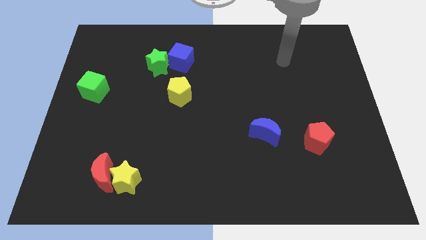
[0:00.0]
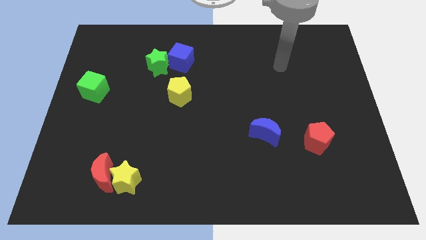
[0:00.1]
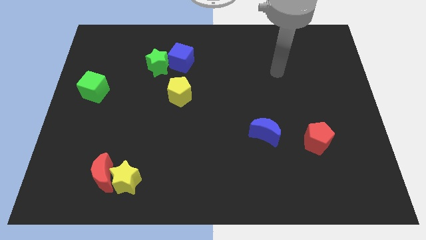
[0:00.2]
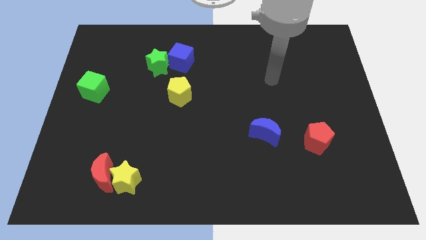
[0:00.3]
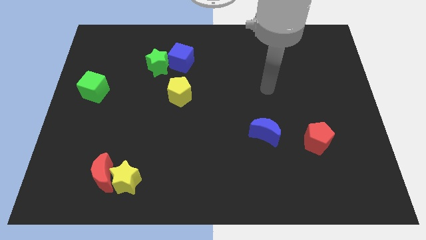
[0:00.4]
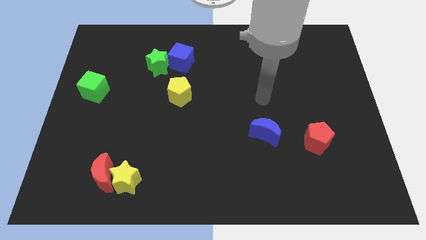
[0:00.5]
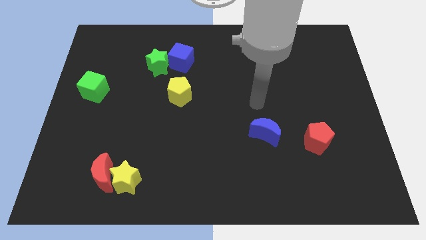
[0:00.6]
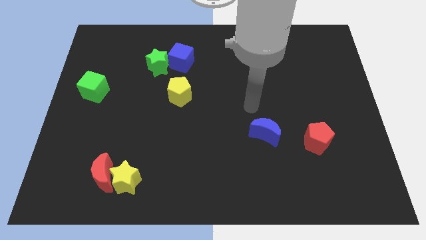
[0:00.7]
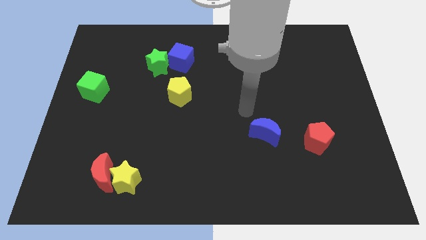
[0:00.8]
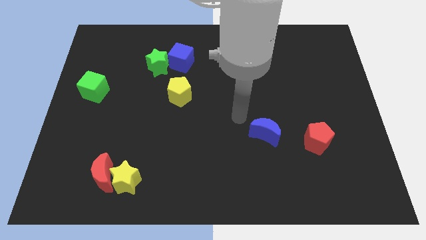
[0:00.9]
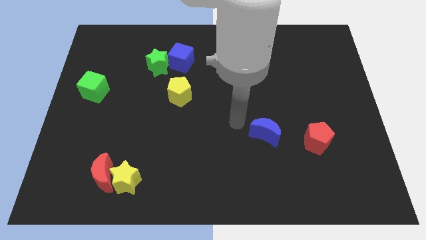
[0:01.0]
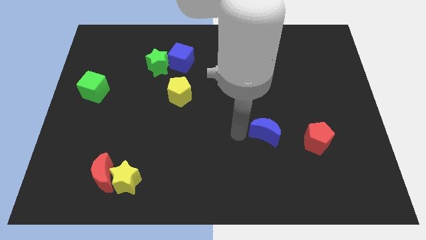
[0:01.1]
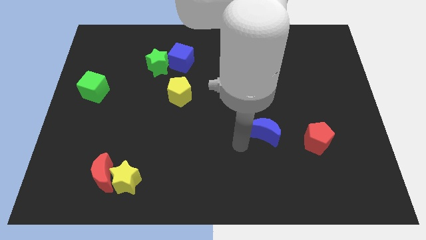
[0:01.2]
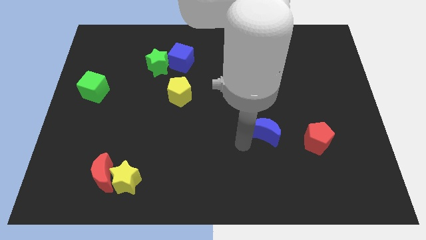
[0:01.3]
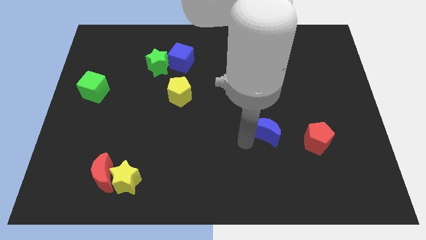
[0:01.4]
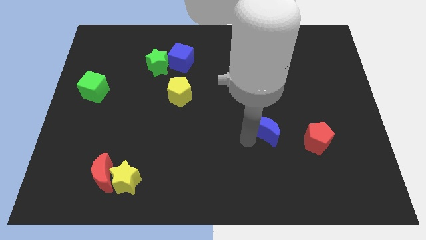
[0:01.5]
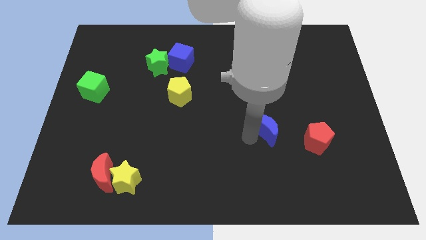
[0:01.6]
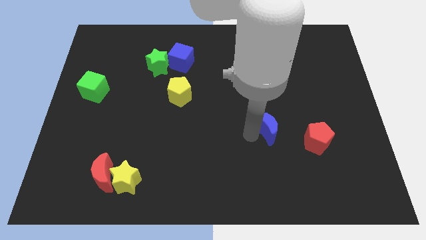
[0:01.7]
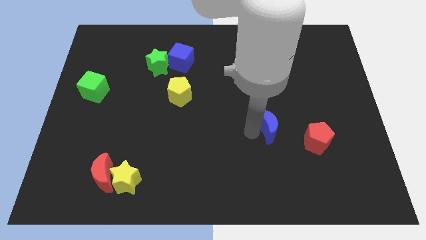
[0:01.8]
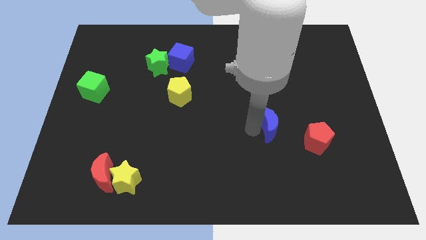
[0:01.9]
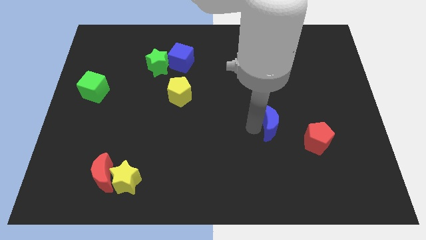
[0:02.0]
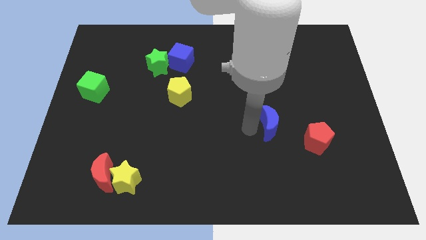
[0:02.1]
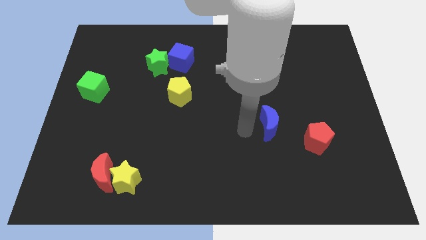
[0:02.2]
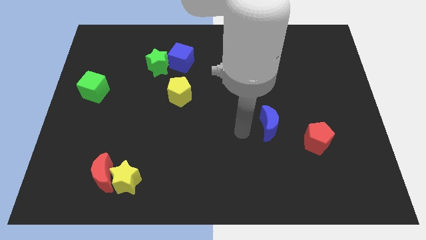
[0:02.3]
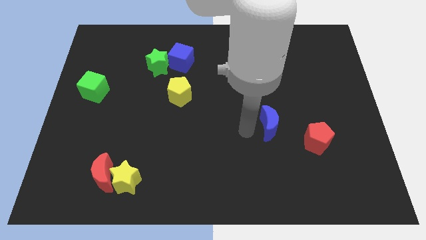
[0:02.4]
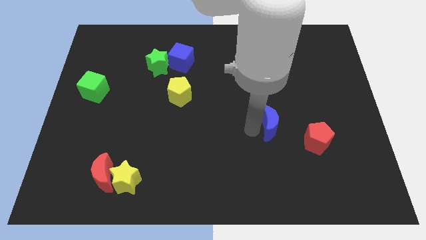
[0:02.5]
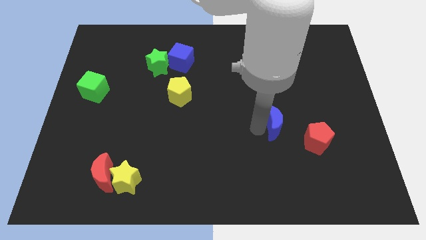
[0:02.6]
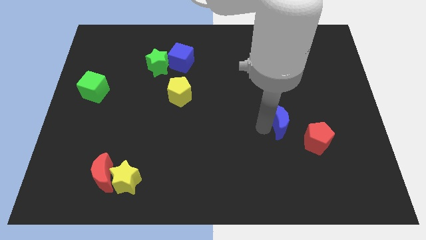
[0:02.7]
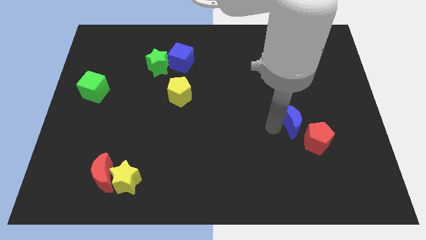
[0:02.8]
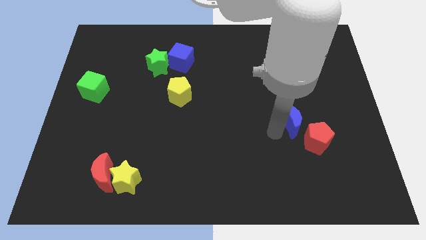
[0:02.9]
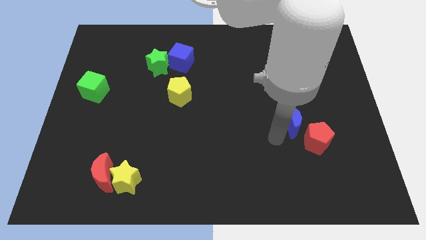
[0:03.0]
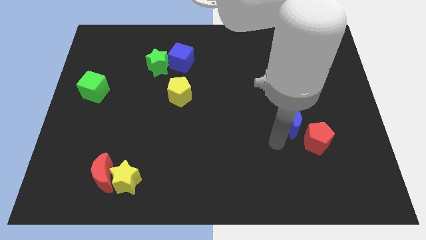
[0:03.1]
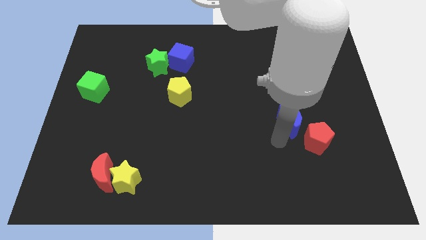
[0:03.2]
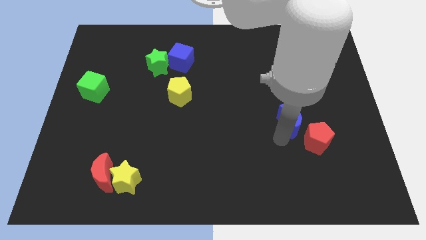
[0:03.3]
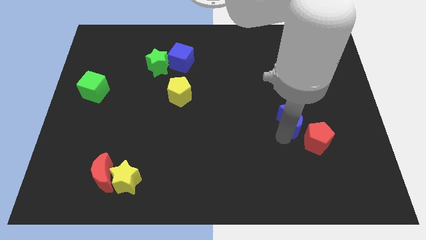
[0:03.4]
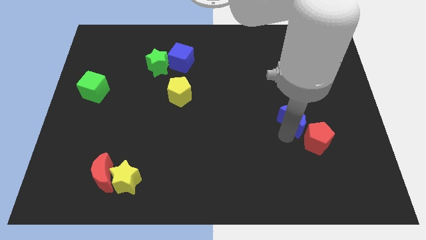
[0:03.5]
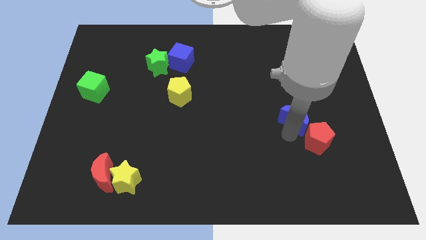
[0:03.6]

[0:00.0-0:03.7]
slide the blue moon a little diagonally up and to the right

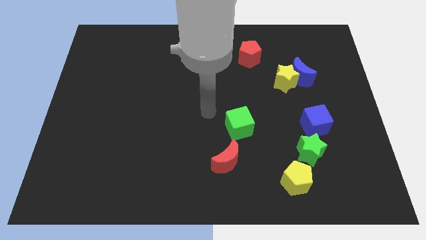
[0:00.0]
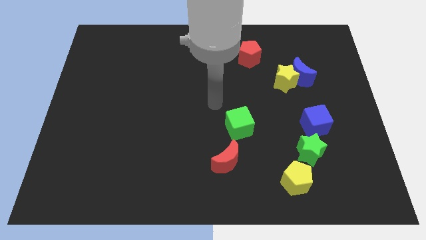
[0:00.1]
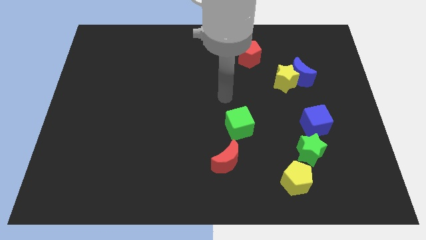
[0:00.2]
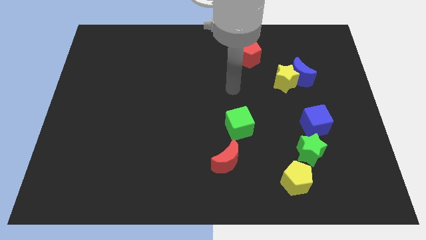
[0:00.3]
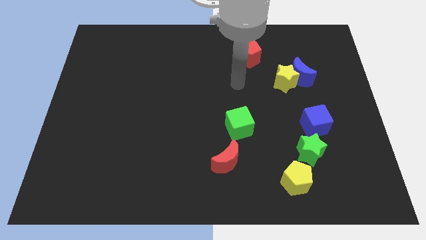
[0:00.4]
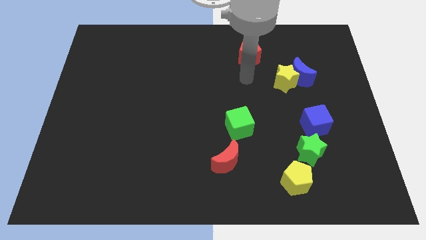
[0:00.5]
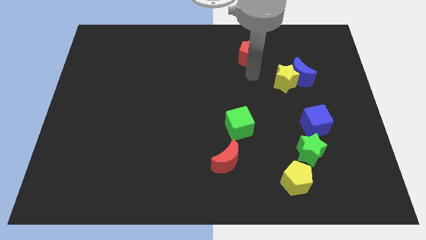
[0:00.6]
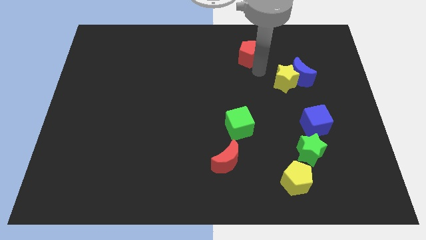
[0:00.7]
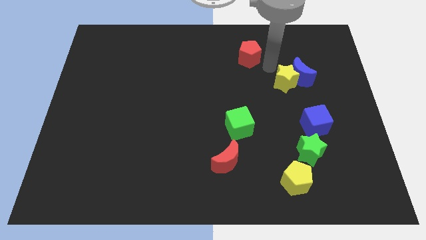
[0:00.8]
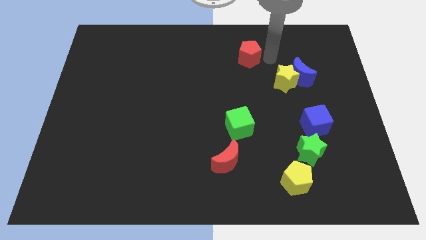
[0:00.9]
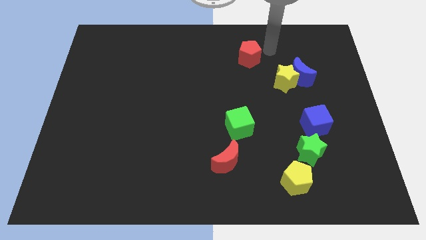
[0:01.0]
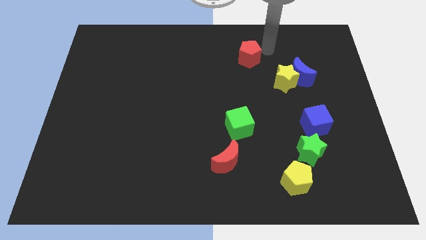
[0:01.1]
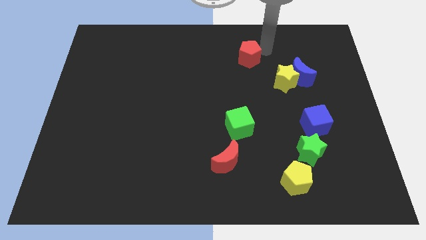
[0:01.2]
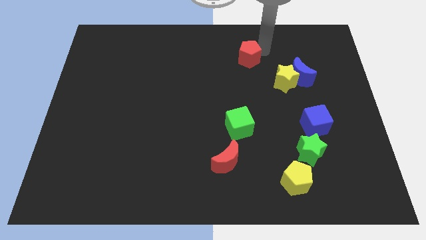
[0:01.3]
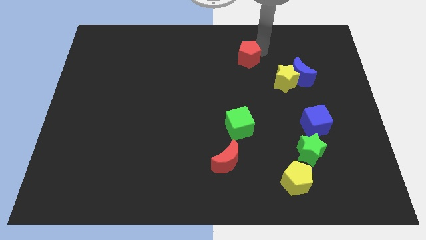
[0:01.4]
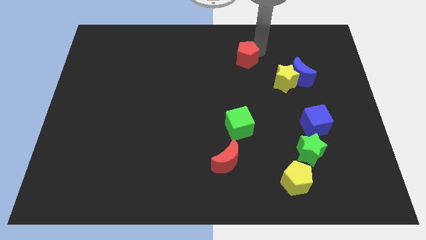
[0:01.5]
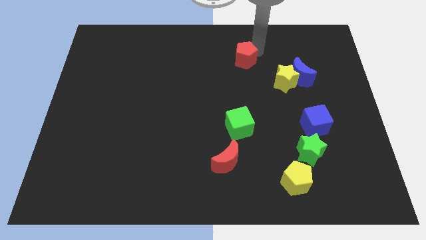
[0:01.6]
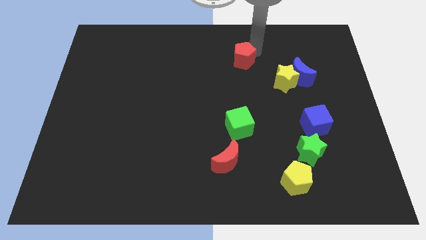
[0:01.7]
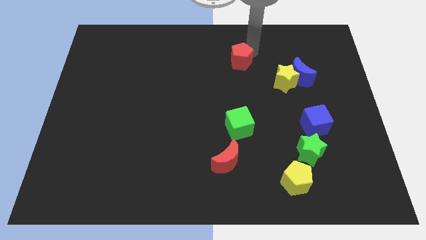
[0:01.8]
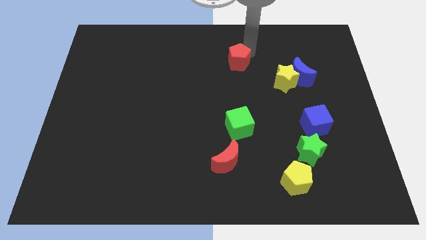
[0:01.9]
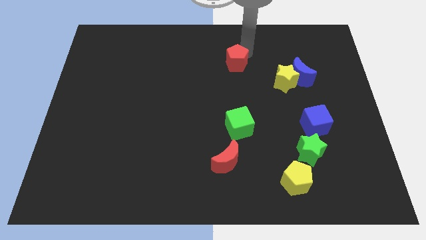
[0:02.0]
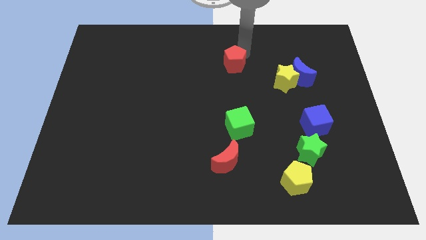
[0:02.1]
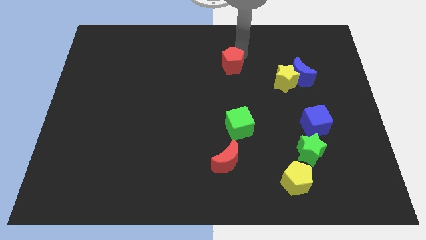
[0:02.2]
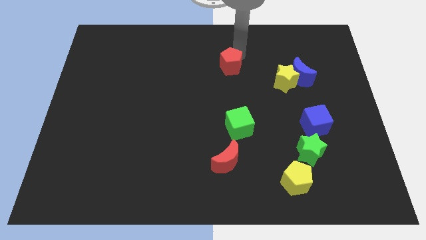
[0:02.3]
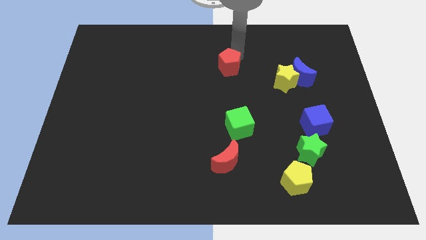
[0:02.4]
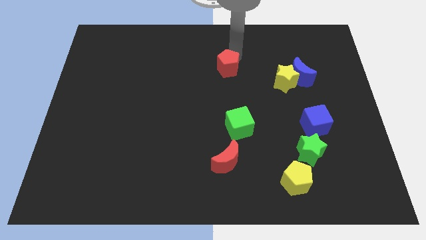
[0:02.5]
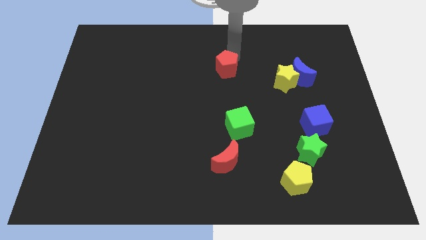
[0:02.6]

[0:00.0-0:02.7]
slightly slide the red pentagon down and then left

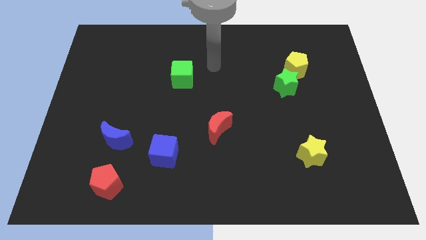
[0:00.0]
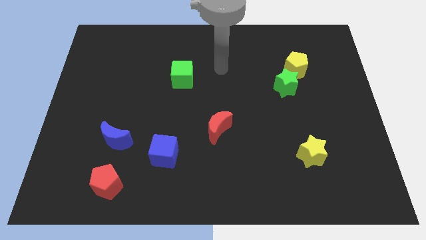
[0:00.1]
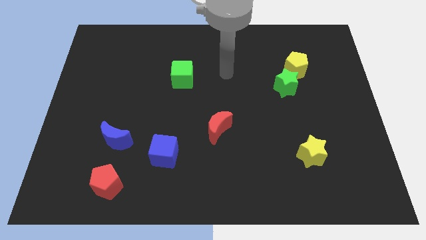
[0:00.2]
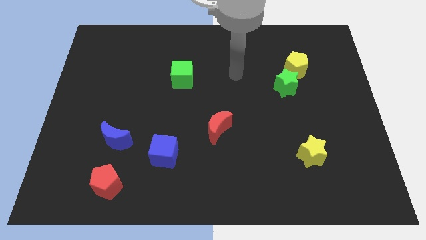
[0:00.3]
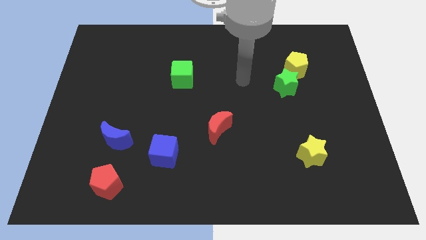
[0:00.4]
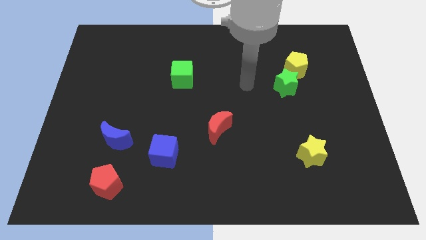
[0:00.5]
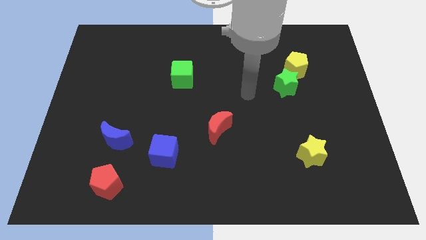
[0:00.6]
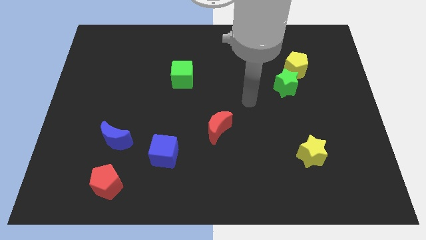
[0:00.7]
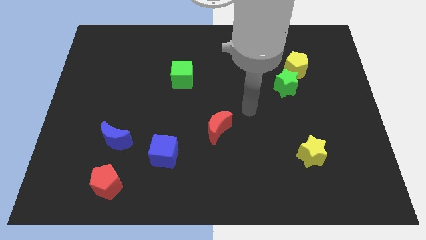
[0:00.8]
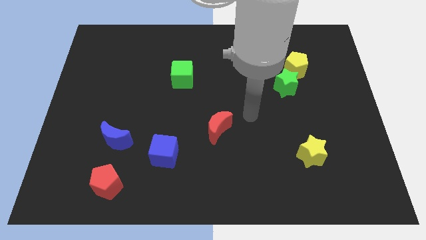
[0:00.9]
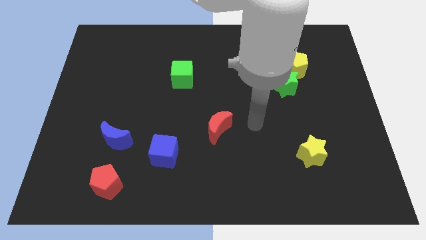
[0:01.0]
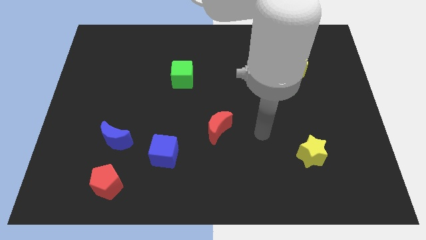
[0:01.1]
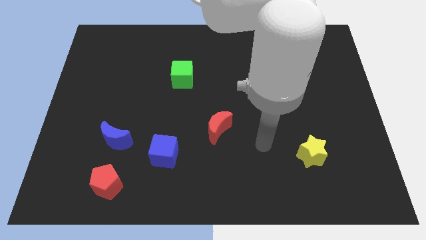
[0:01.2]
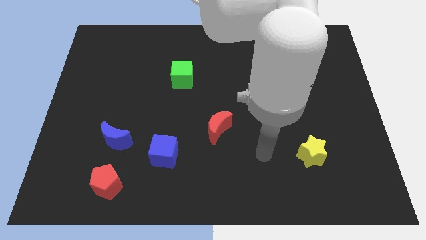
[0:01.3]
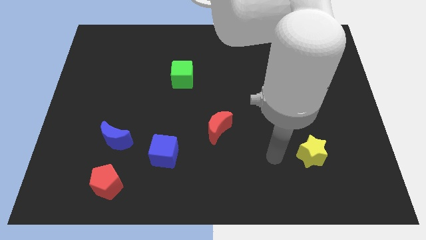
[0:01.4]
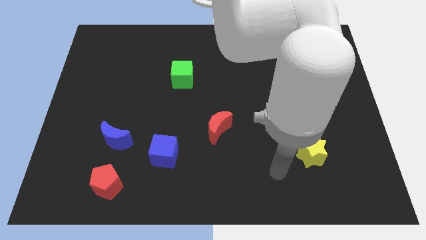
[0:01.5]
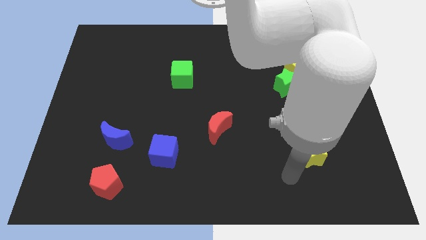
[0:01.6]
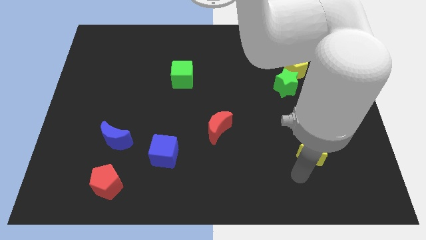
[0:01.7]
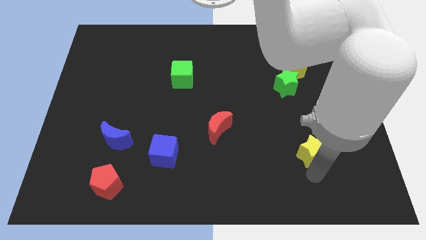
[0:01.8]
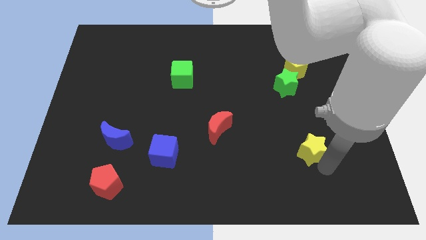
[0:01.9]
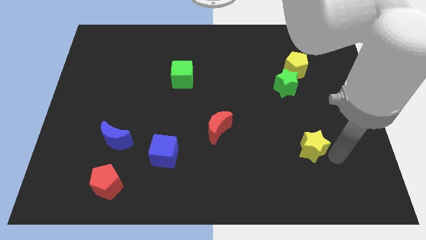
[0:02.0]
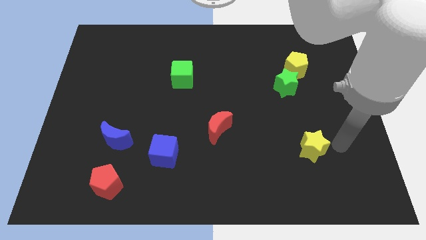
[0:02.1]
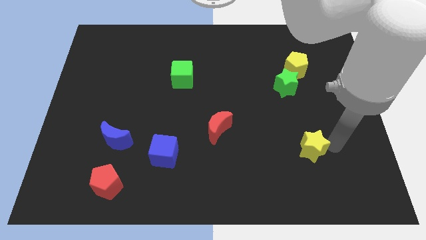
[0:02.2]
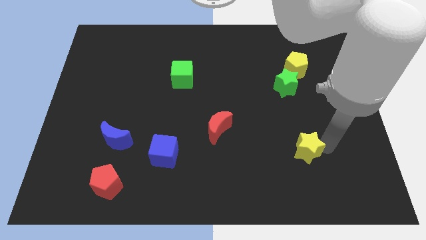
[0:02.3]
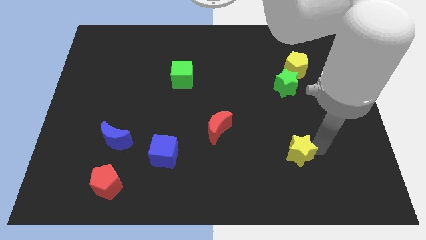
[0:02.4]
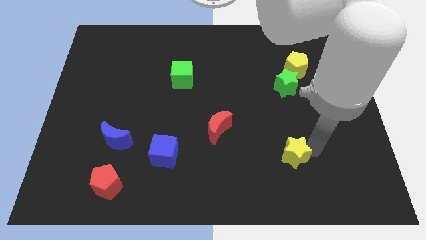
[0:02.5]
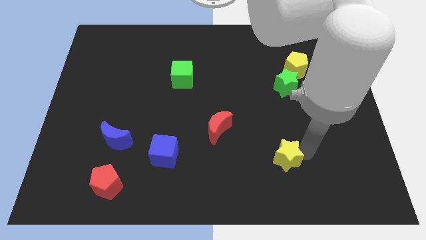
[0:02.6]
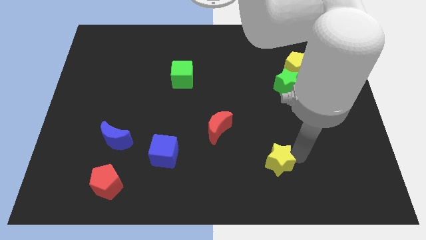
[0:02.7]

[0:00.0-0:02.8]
push the yellow star left a little bit
